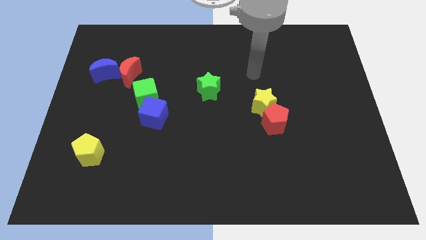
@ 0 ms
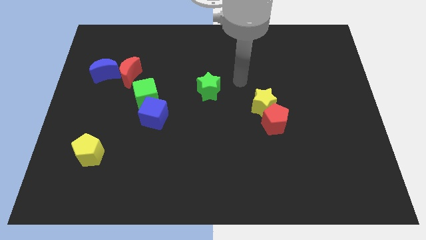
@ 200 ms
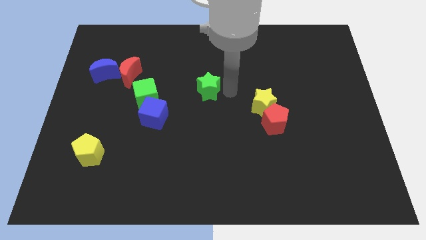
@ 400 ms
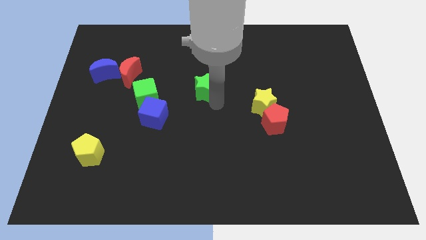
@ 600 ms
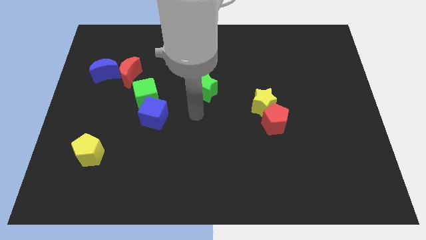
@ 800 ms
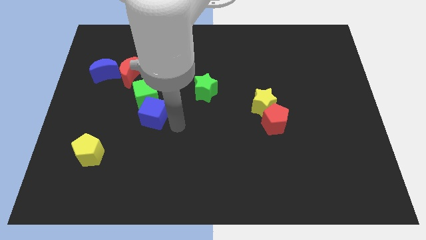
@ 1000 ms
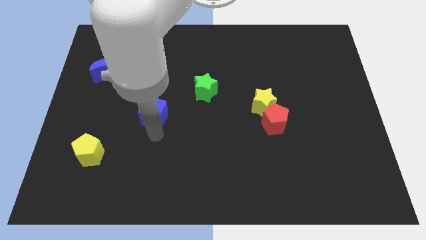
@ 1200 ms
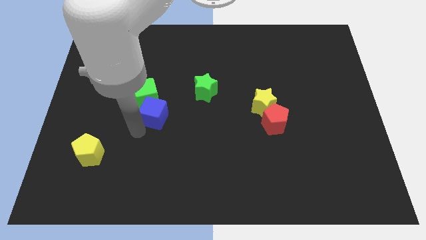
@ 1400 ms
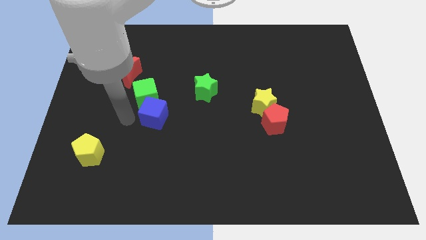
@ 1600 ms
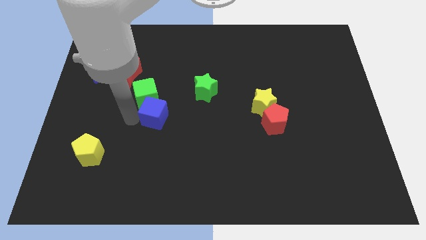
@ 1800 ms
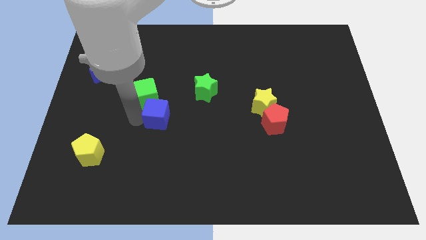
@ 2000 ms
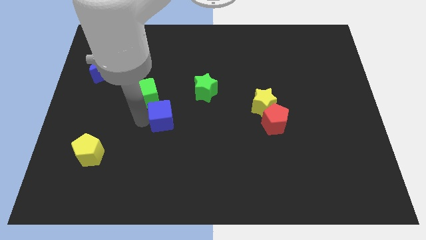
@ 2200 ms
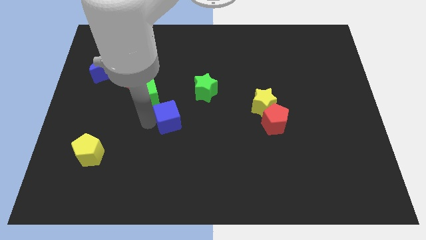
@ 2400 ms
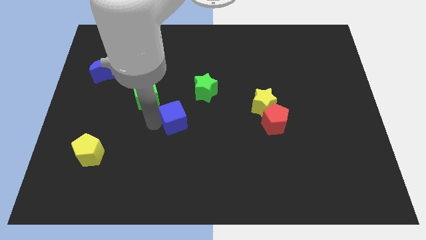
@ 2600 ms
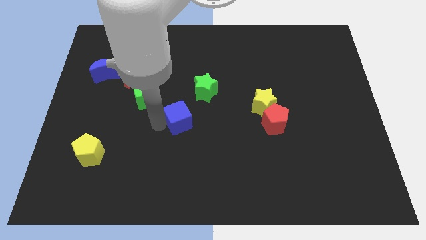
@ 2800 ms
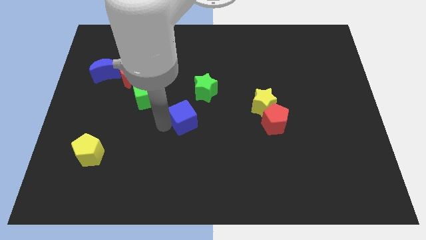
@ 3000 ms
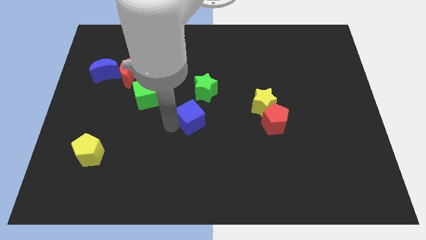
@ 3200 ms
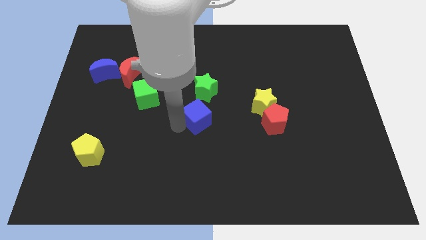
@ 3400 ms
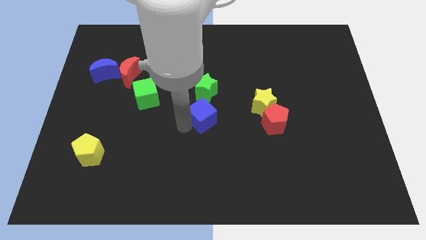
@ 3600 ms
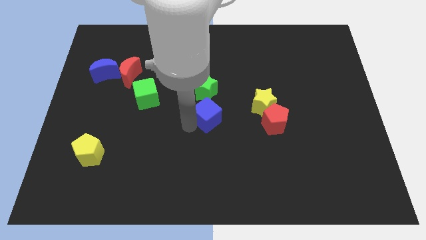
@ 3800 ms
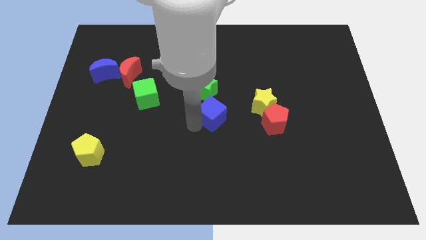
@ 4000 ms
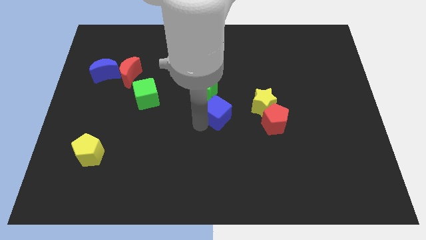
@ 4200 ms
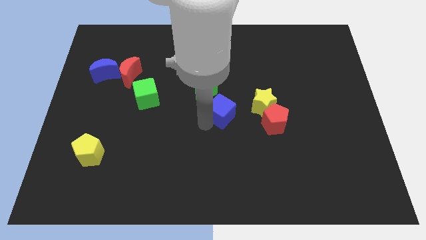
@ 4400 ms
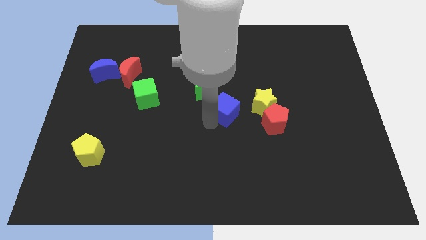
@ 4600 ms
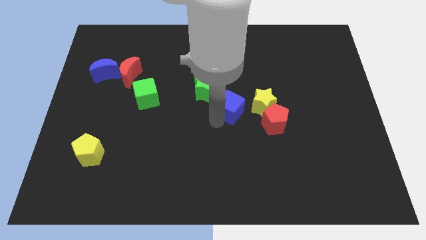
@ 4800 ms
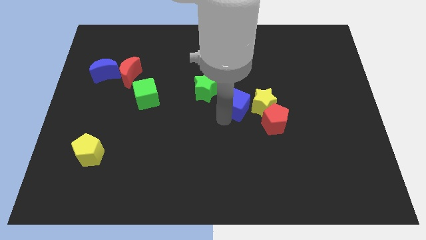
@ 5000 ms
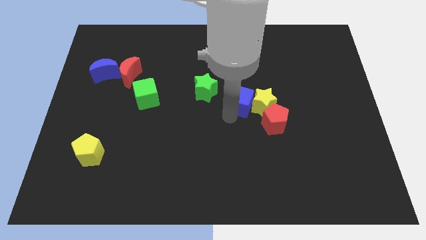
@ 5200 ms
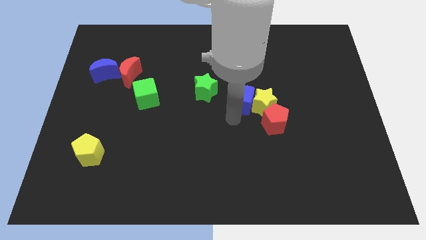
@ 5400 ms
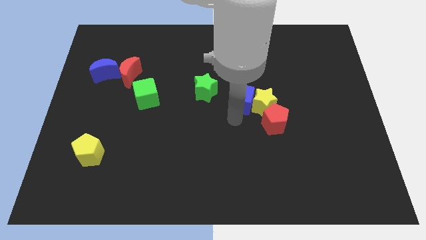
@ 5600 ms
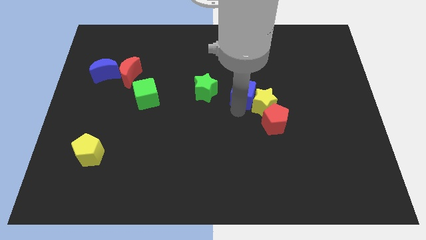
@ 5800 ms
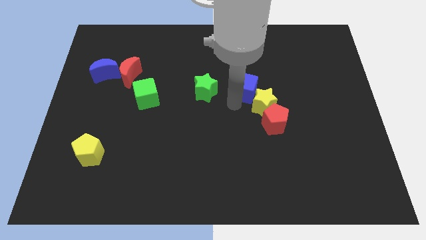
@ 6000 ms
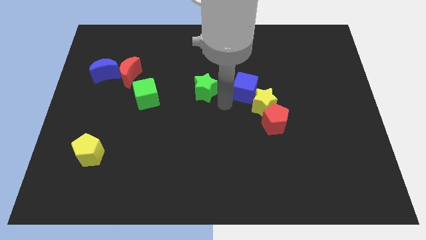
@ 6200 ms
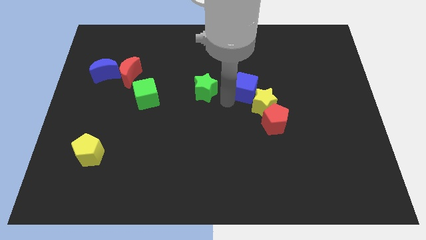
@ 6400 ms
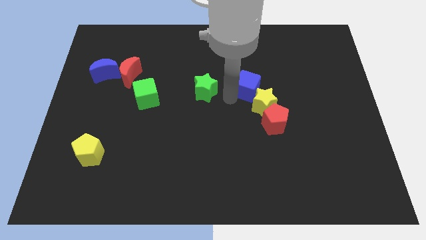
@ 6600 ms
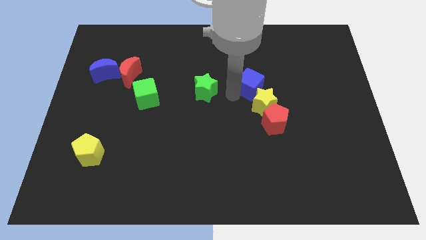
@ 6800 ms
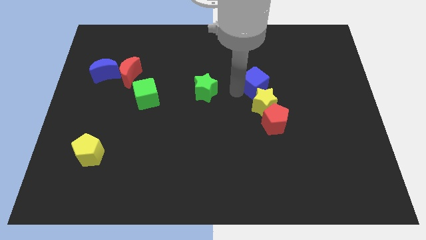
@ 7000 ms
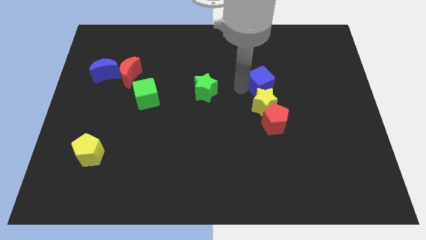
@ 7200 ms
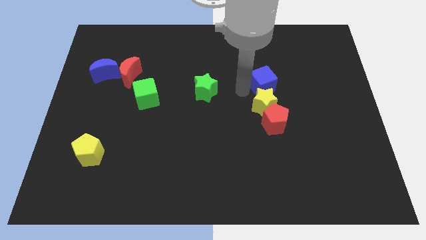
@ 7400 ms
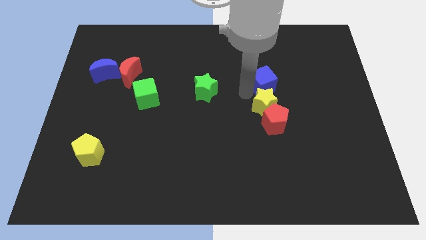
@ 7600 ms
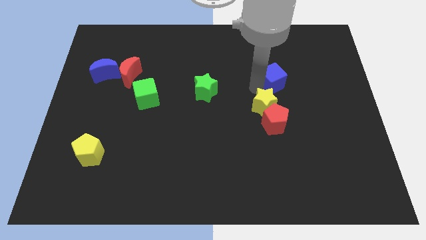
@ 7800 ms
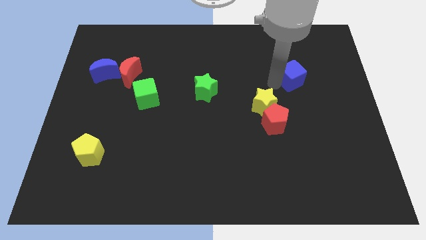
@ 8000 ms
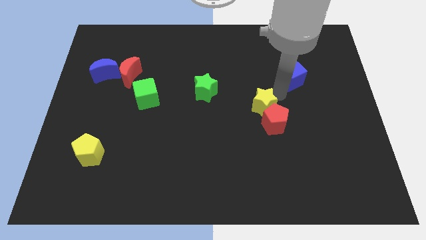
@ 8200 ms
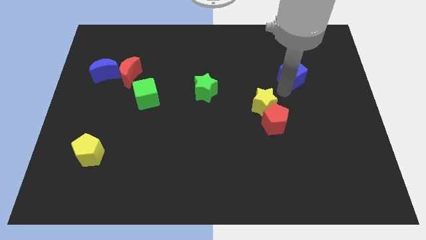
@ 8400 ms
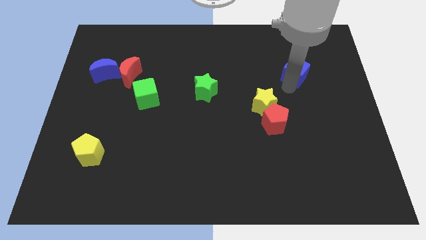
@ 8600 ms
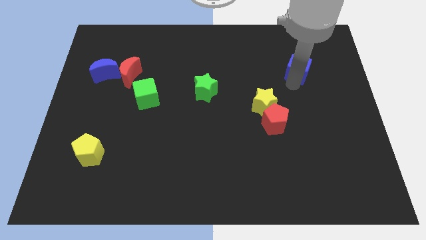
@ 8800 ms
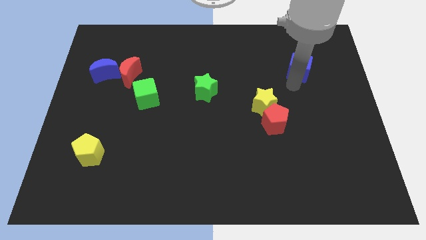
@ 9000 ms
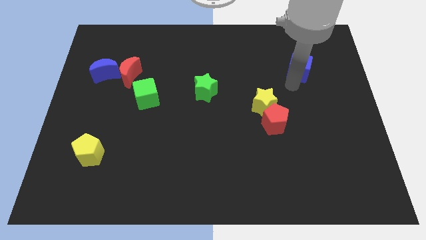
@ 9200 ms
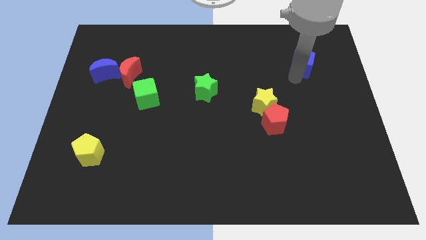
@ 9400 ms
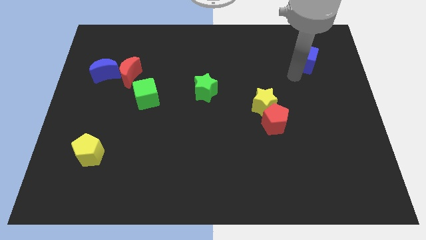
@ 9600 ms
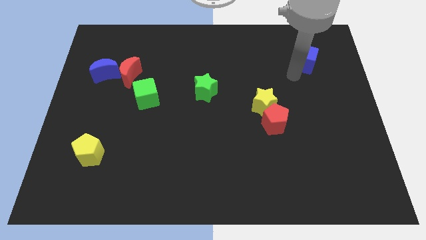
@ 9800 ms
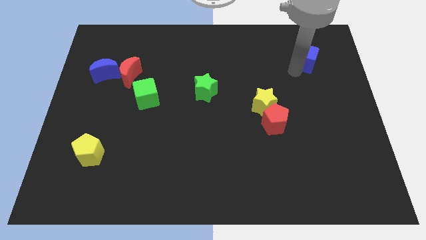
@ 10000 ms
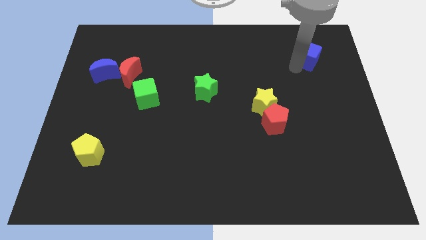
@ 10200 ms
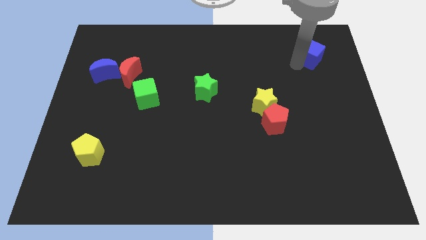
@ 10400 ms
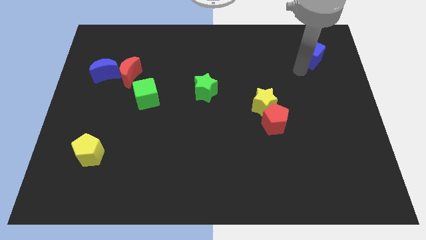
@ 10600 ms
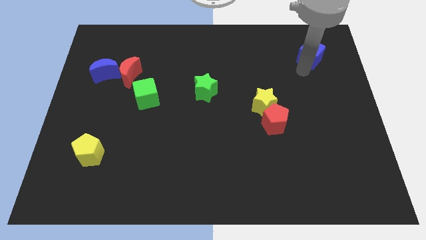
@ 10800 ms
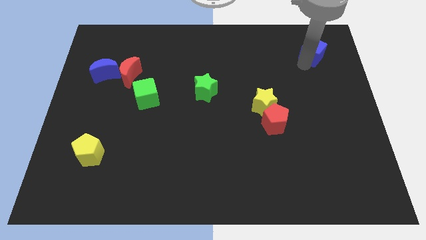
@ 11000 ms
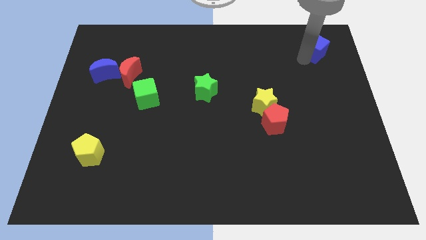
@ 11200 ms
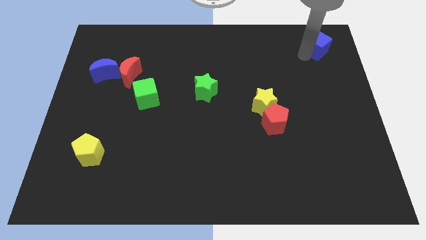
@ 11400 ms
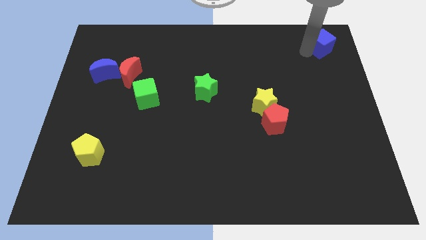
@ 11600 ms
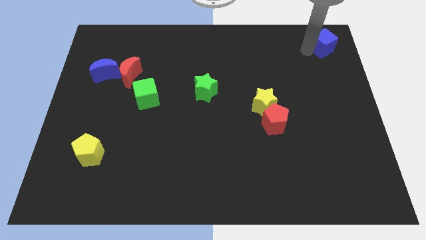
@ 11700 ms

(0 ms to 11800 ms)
move the blue cube to the upper right corner

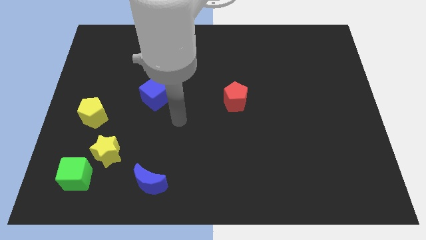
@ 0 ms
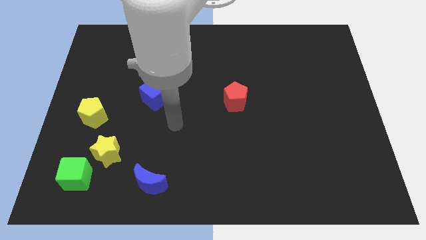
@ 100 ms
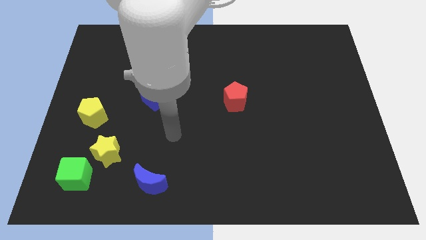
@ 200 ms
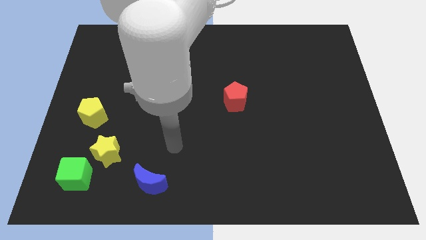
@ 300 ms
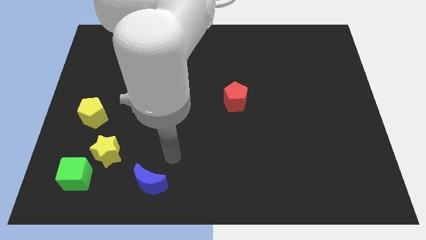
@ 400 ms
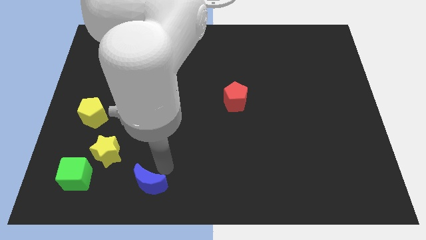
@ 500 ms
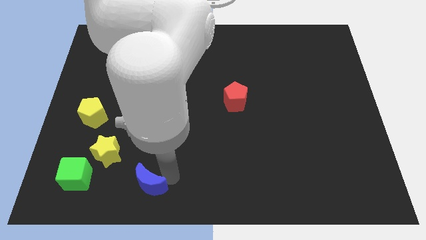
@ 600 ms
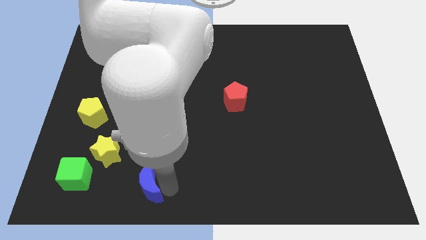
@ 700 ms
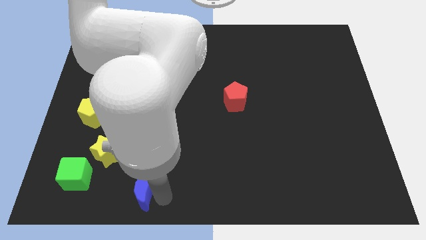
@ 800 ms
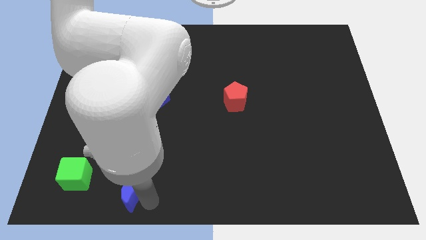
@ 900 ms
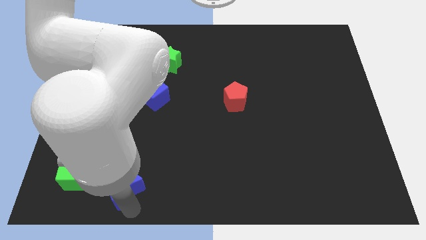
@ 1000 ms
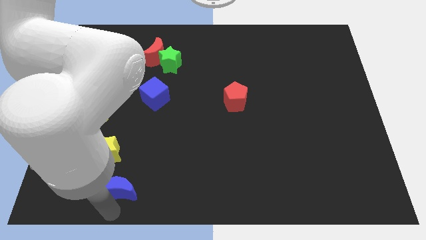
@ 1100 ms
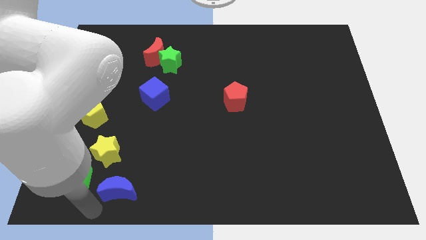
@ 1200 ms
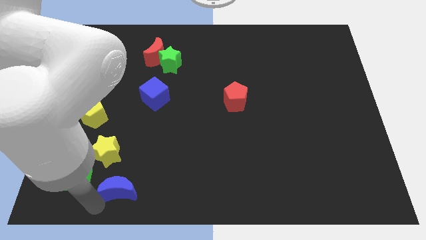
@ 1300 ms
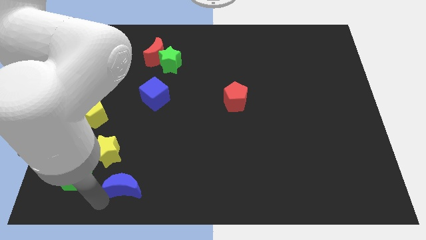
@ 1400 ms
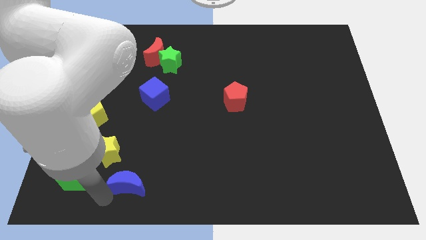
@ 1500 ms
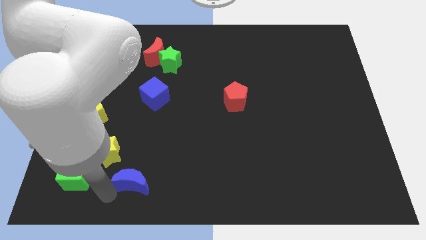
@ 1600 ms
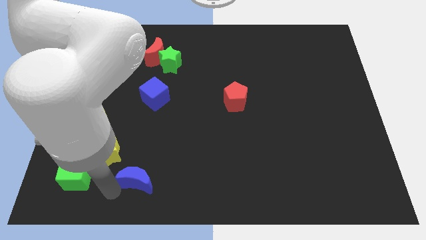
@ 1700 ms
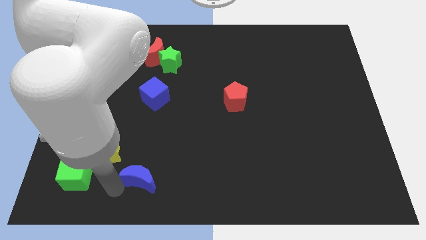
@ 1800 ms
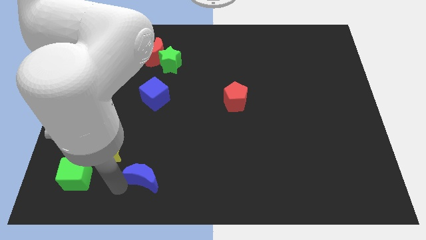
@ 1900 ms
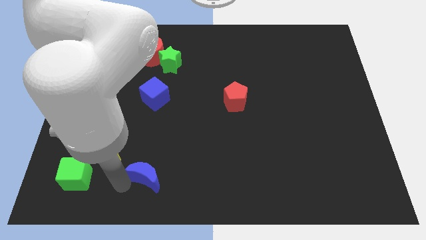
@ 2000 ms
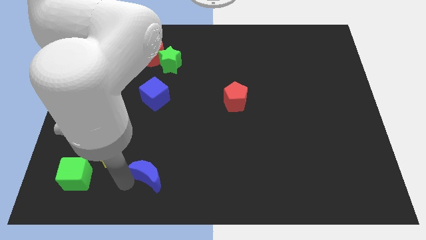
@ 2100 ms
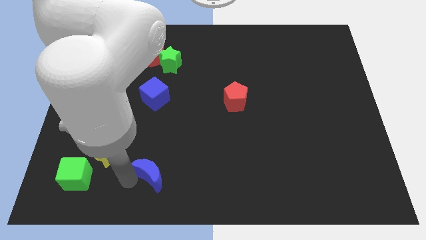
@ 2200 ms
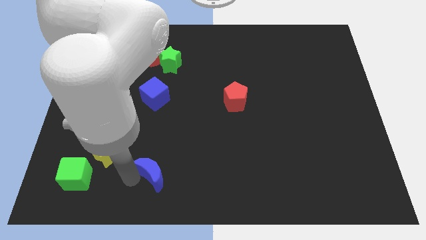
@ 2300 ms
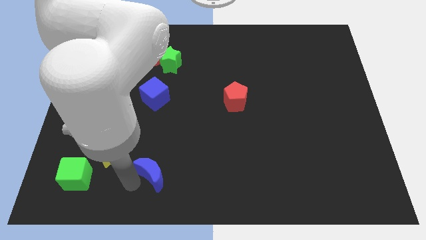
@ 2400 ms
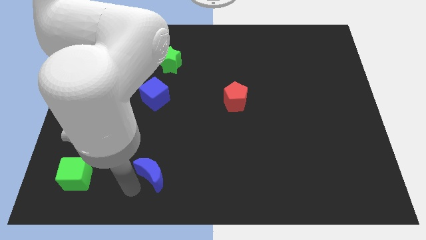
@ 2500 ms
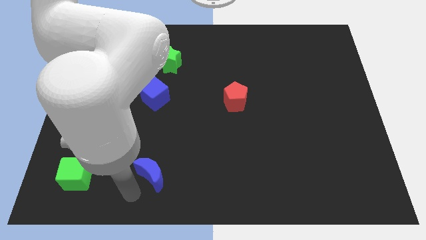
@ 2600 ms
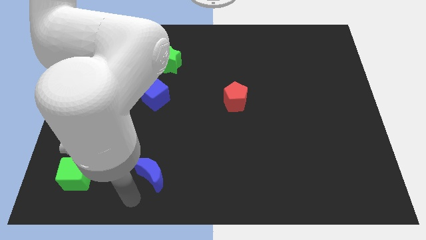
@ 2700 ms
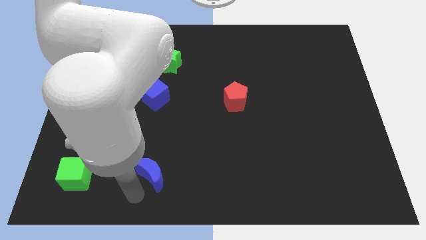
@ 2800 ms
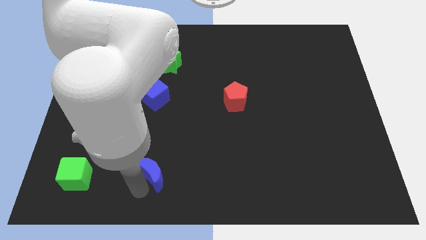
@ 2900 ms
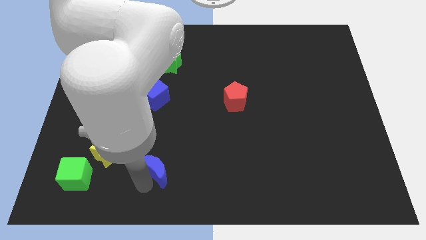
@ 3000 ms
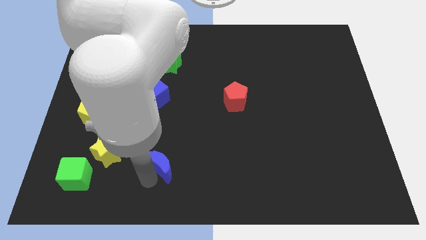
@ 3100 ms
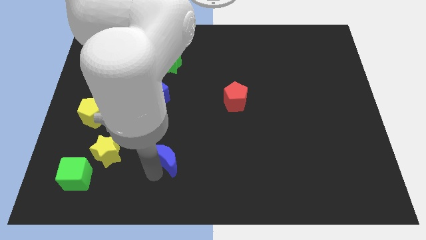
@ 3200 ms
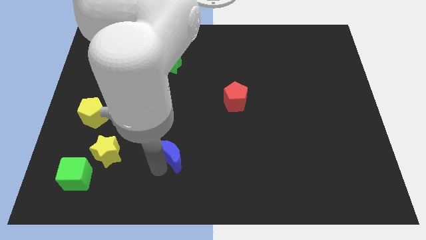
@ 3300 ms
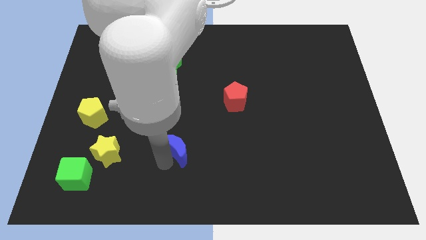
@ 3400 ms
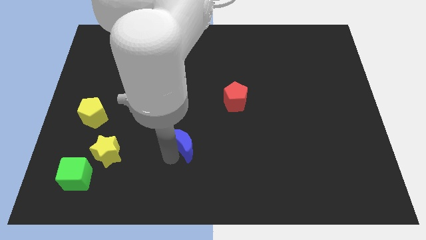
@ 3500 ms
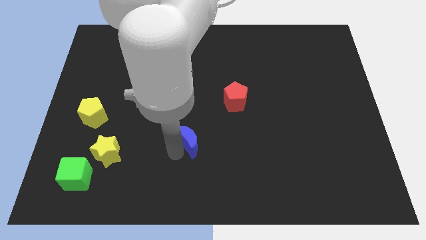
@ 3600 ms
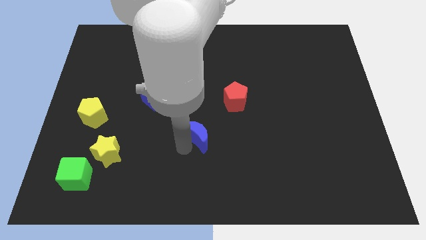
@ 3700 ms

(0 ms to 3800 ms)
slide the blue moon to the middle of the board
